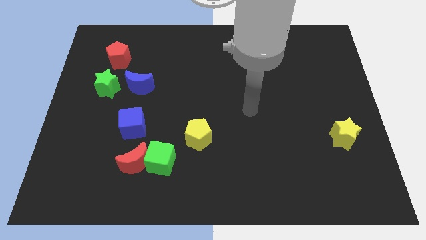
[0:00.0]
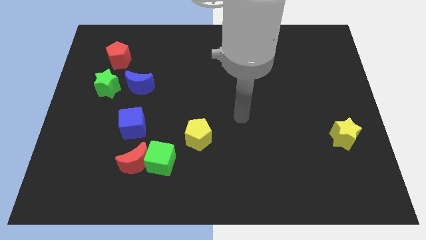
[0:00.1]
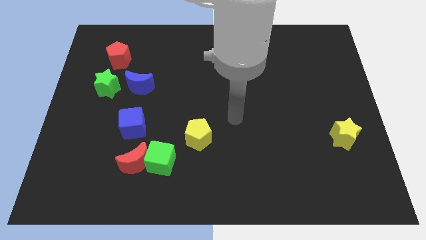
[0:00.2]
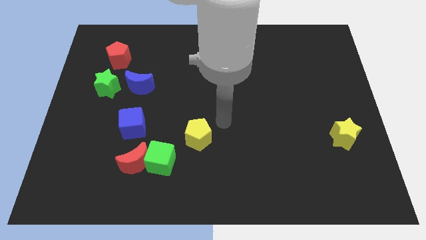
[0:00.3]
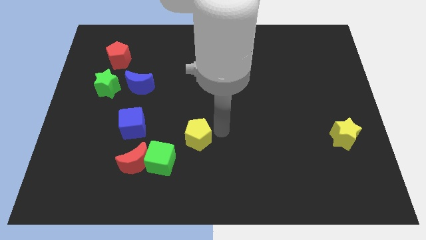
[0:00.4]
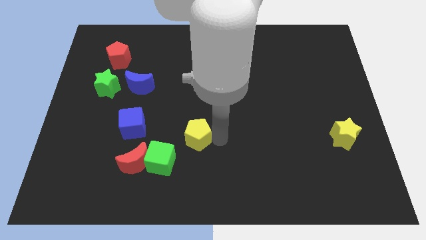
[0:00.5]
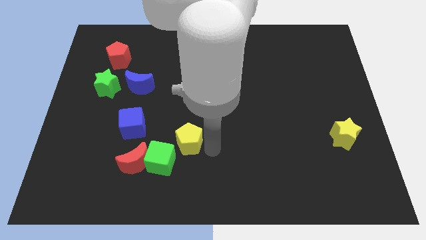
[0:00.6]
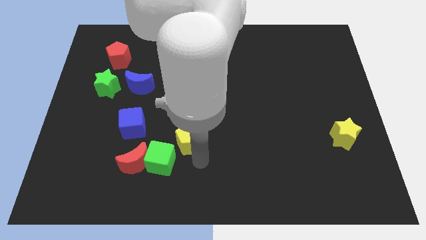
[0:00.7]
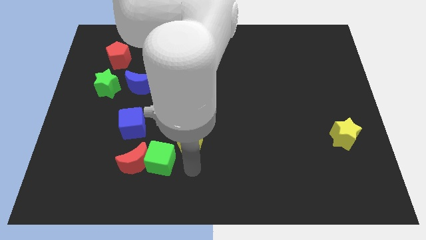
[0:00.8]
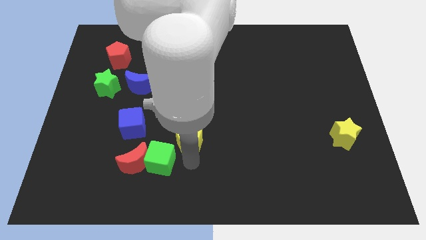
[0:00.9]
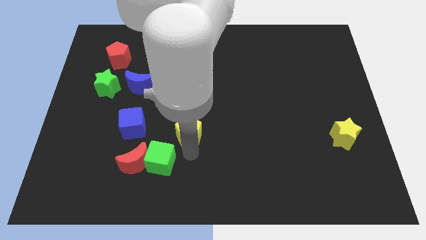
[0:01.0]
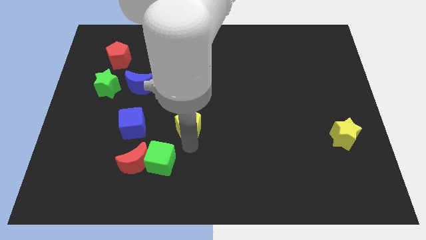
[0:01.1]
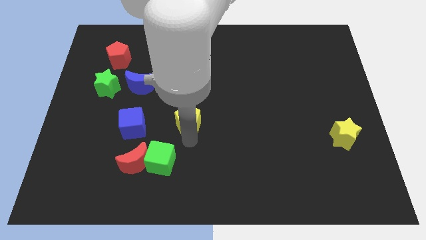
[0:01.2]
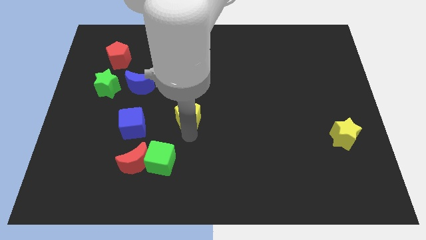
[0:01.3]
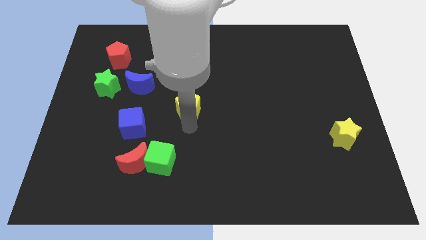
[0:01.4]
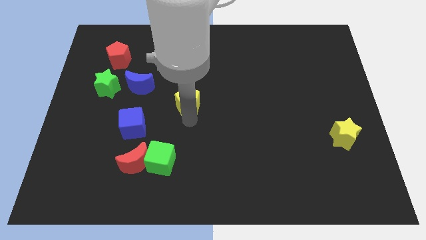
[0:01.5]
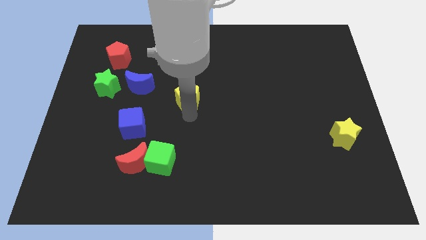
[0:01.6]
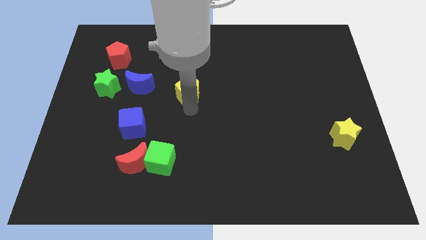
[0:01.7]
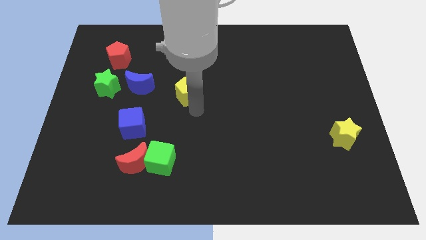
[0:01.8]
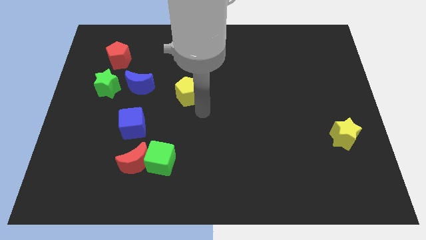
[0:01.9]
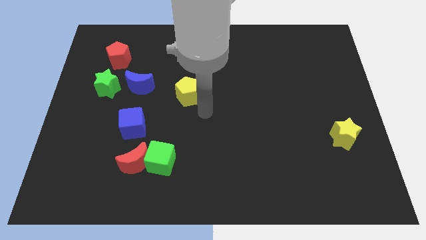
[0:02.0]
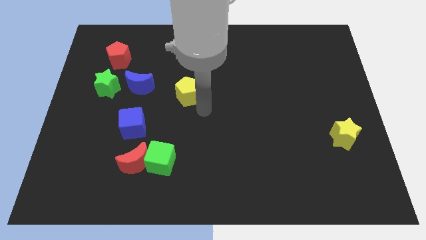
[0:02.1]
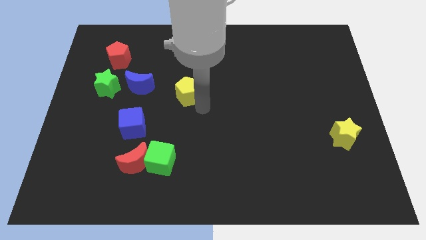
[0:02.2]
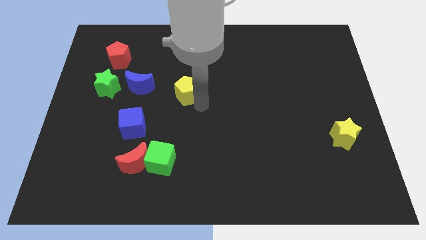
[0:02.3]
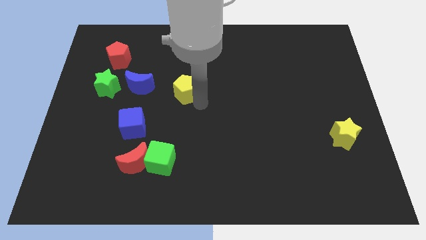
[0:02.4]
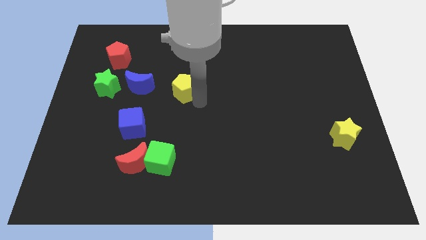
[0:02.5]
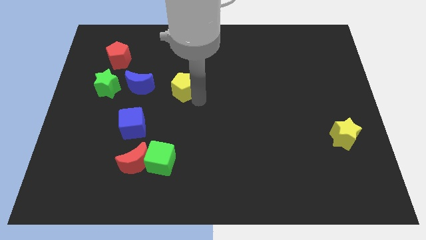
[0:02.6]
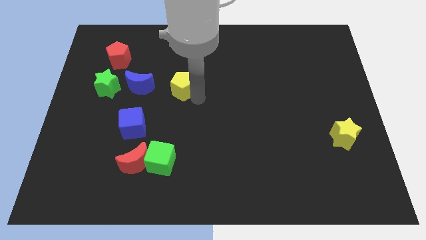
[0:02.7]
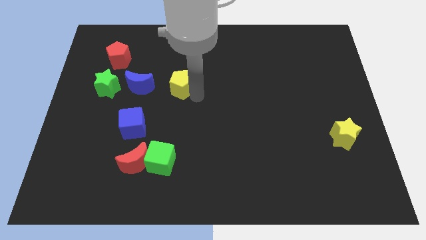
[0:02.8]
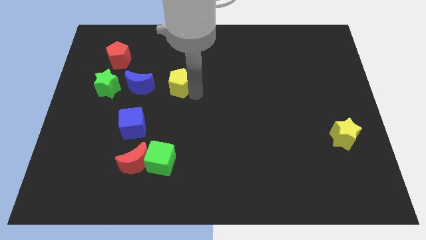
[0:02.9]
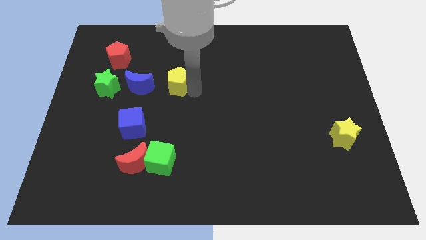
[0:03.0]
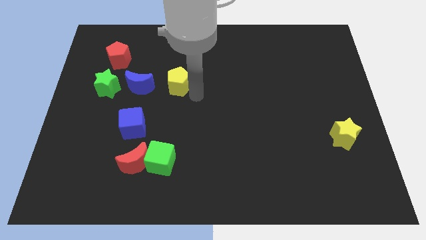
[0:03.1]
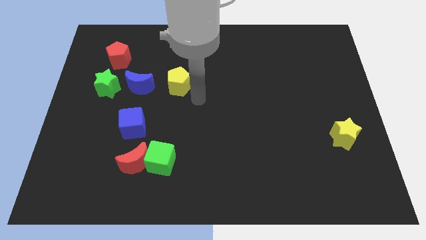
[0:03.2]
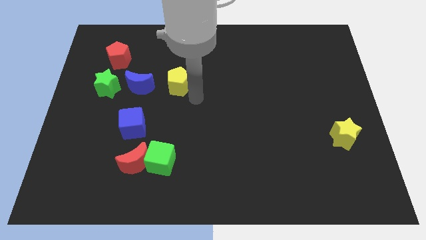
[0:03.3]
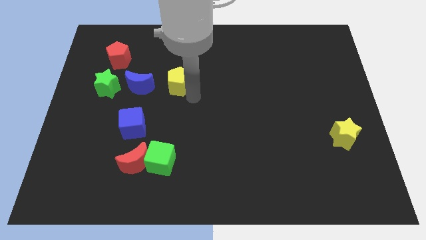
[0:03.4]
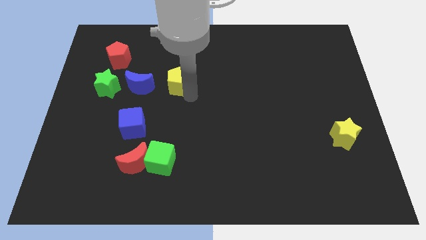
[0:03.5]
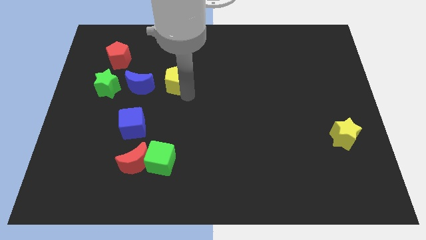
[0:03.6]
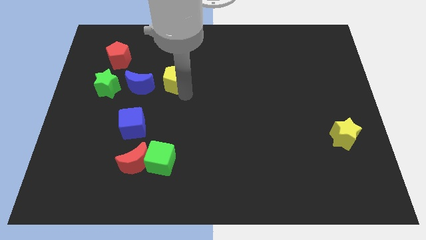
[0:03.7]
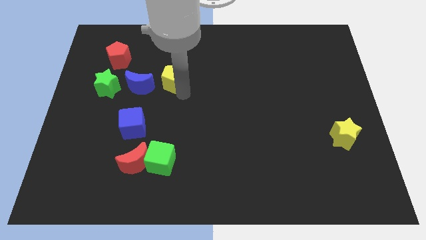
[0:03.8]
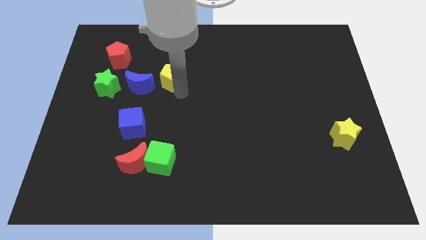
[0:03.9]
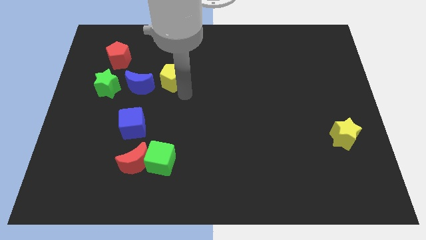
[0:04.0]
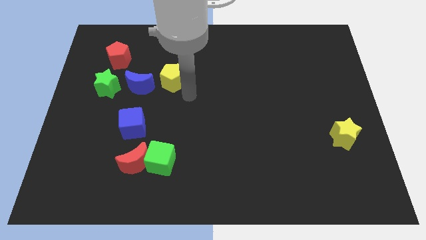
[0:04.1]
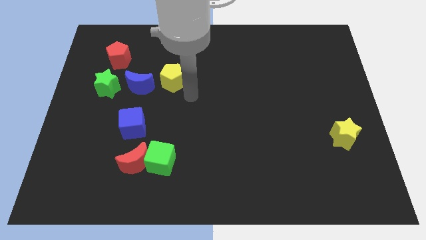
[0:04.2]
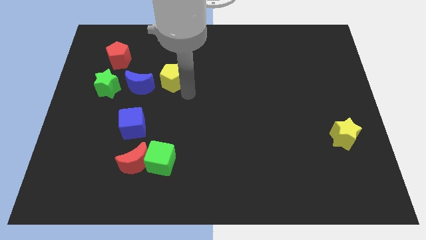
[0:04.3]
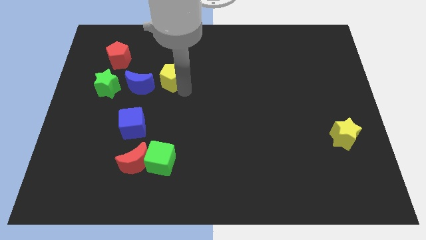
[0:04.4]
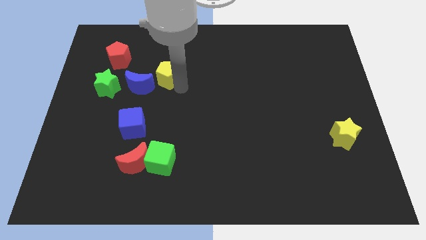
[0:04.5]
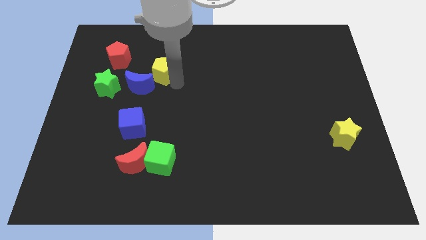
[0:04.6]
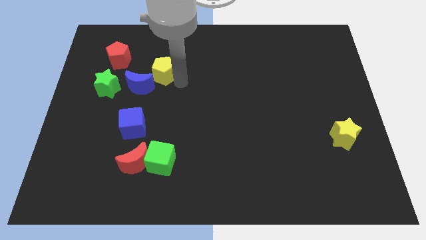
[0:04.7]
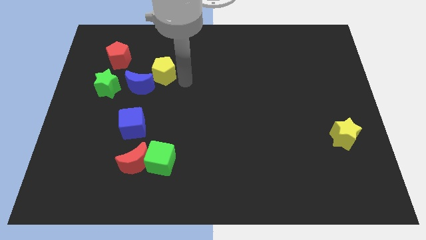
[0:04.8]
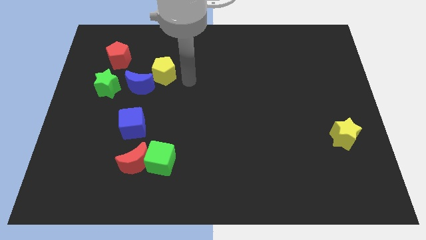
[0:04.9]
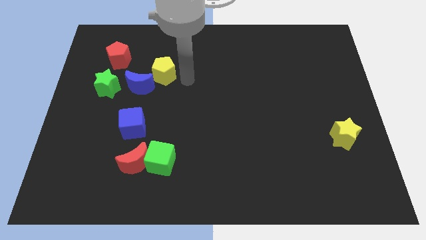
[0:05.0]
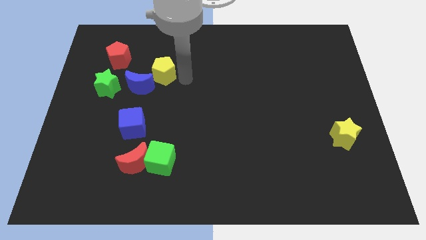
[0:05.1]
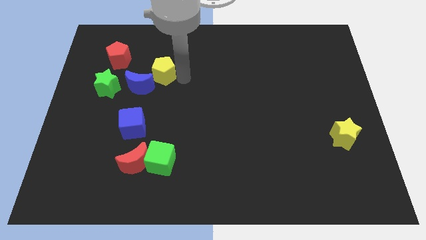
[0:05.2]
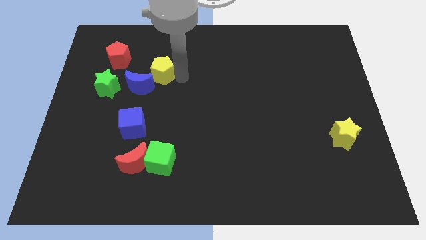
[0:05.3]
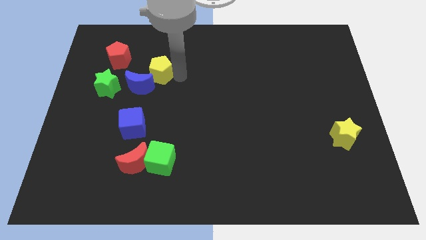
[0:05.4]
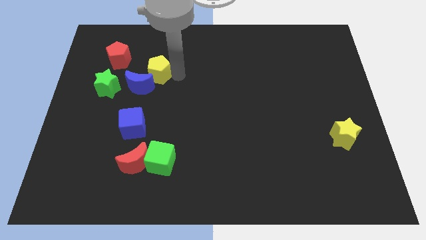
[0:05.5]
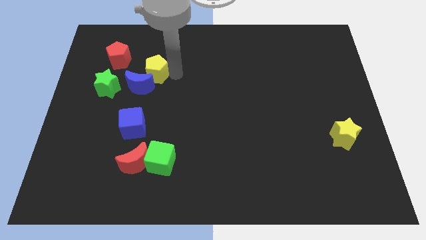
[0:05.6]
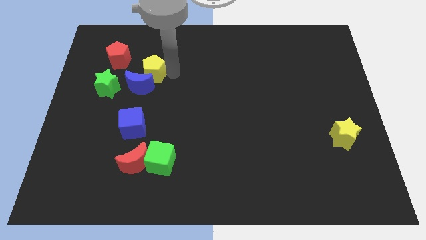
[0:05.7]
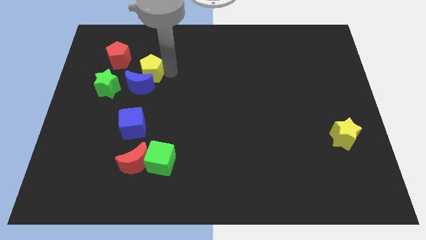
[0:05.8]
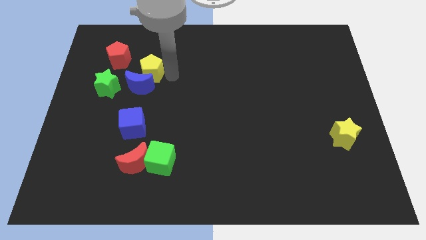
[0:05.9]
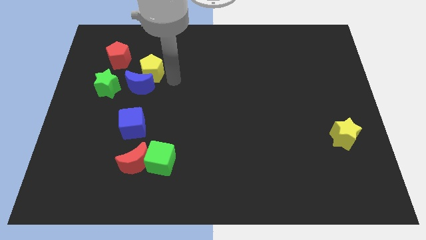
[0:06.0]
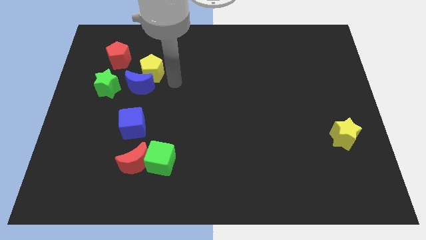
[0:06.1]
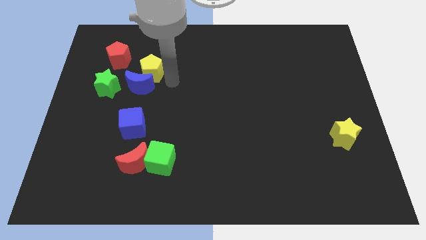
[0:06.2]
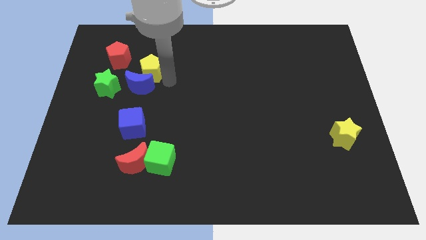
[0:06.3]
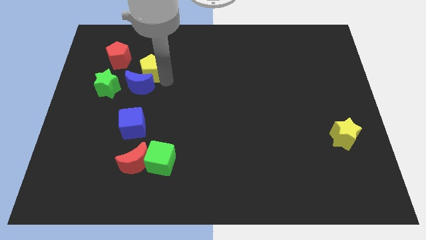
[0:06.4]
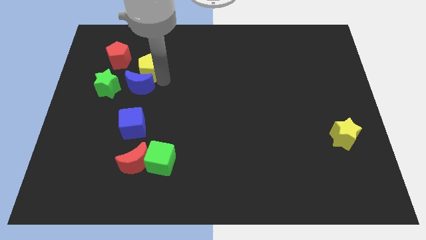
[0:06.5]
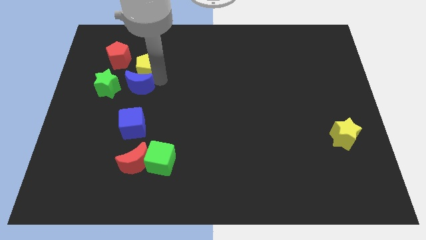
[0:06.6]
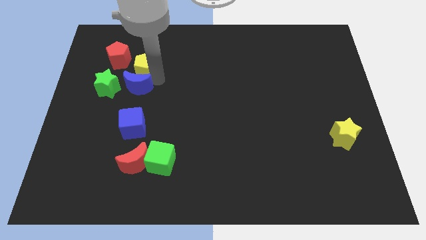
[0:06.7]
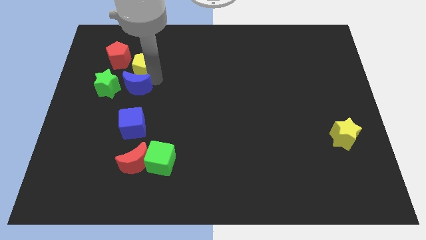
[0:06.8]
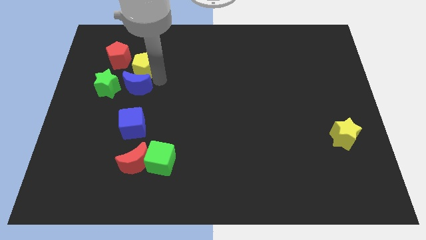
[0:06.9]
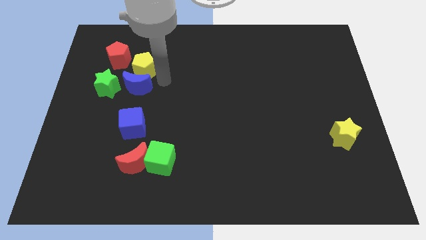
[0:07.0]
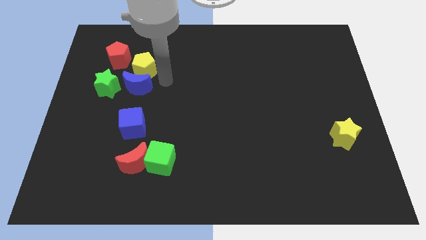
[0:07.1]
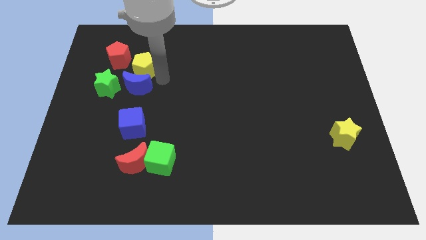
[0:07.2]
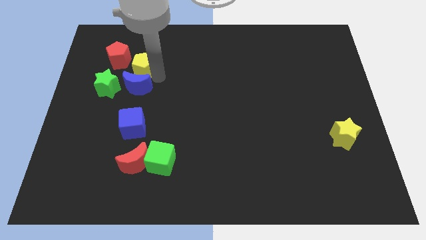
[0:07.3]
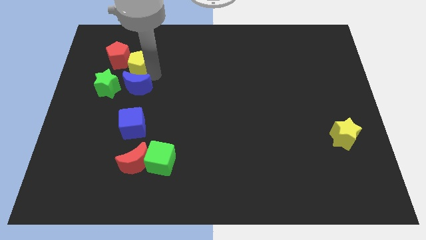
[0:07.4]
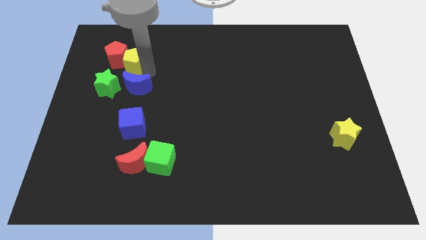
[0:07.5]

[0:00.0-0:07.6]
put the yellow pentagon next to the red pentagon

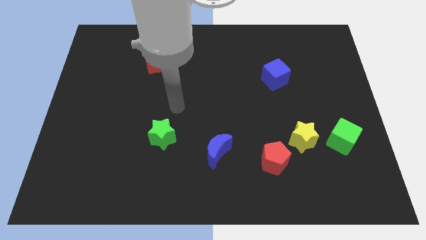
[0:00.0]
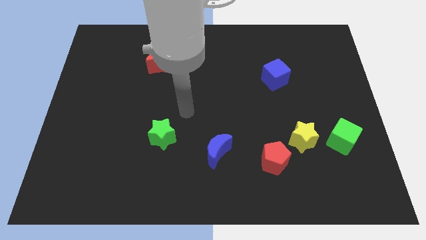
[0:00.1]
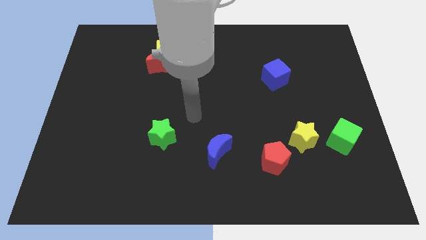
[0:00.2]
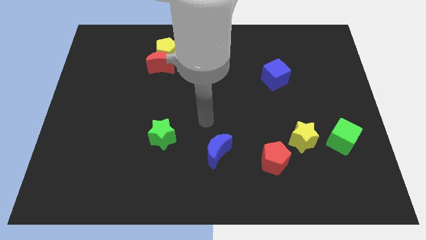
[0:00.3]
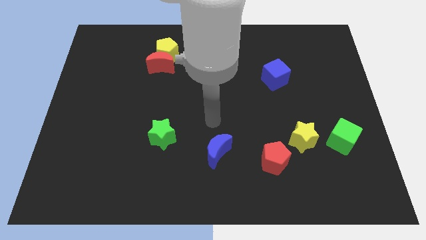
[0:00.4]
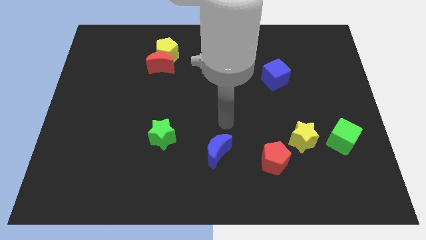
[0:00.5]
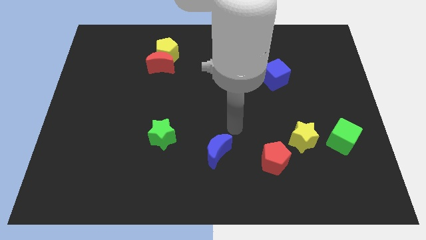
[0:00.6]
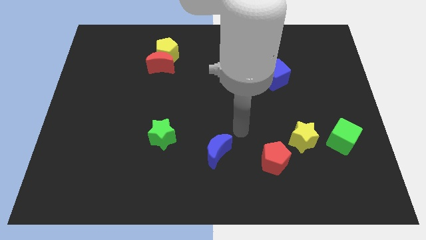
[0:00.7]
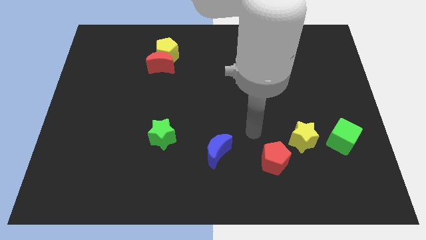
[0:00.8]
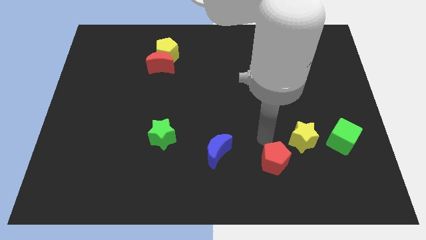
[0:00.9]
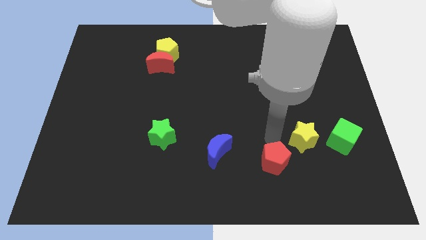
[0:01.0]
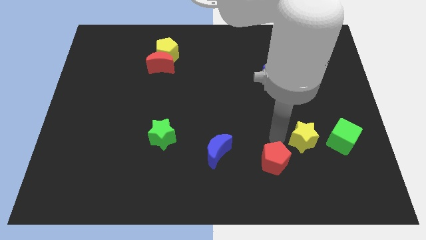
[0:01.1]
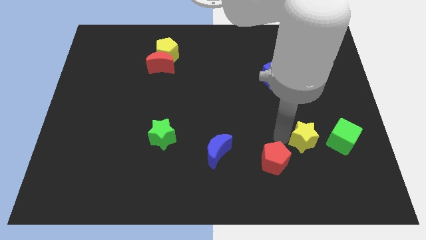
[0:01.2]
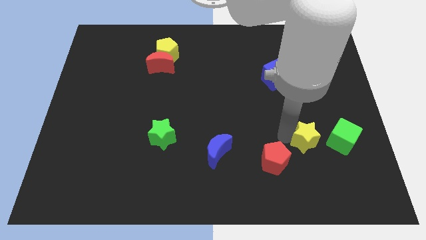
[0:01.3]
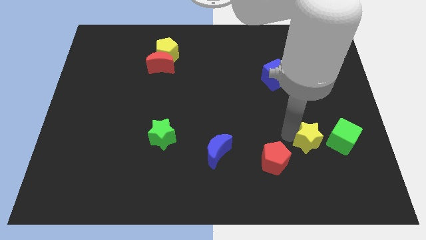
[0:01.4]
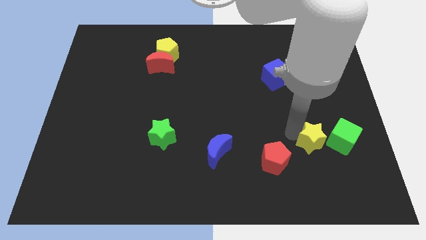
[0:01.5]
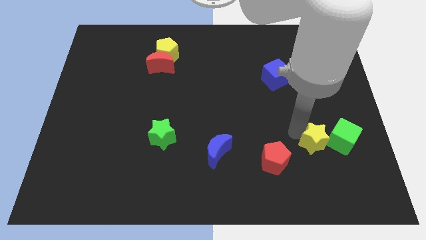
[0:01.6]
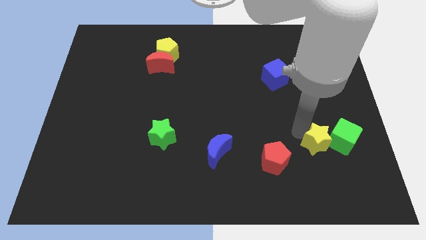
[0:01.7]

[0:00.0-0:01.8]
slide the yellow star next to the green cube
